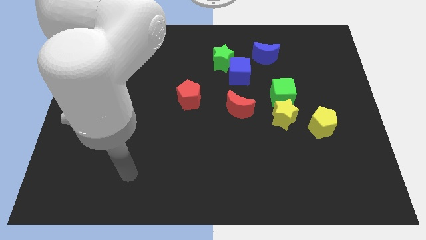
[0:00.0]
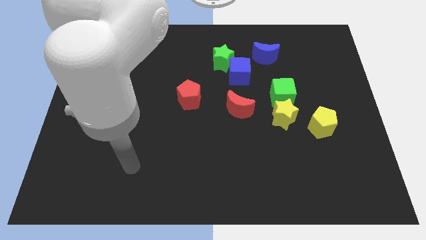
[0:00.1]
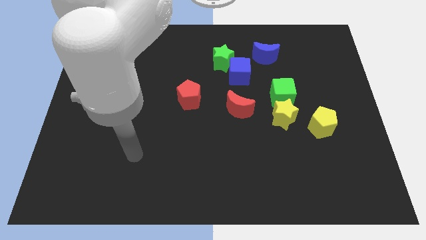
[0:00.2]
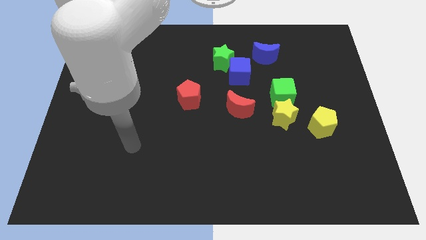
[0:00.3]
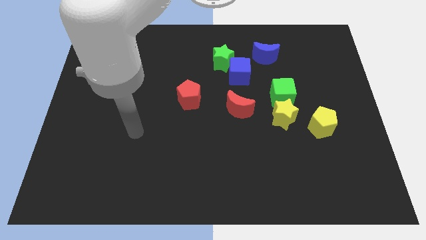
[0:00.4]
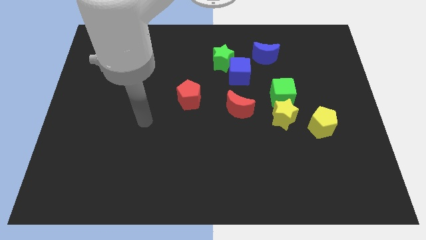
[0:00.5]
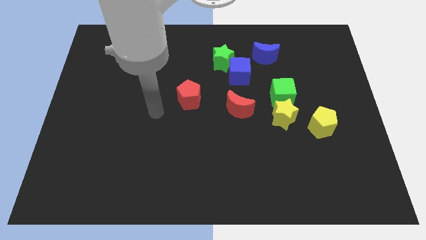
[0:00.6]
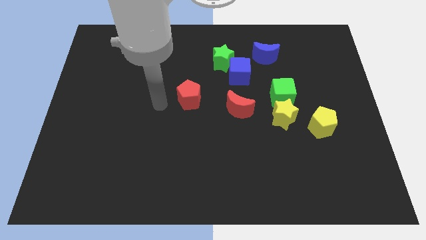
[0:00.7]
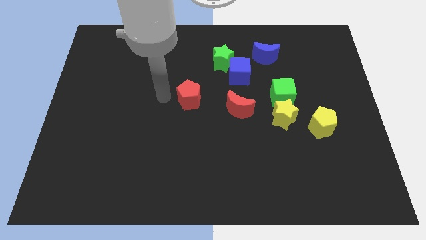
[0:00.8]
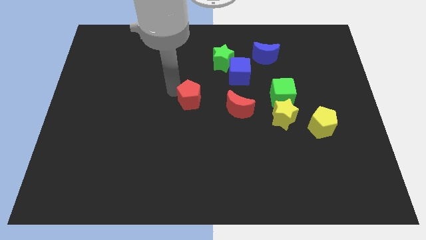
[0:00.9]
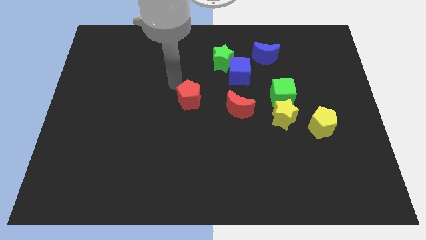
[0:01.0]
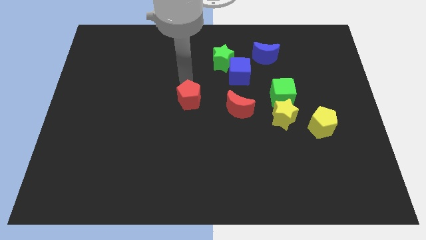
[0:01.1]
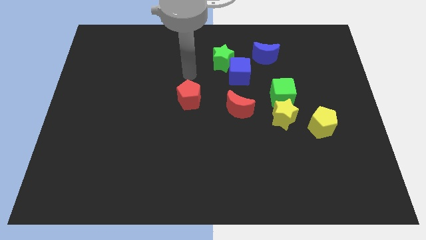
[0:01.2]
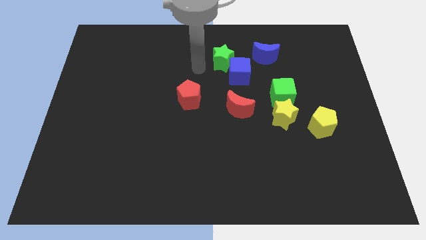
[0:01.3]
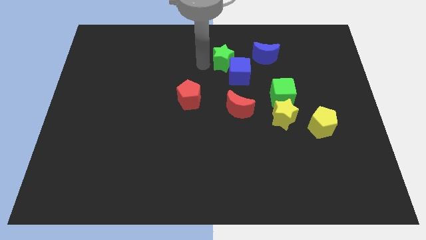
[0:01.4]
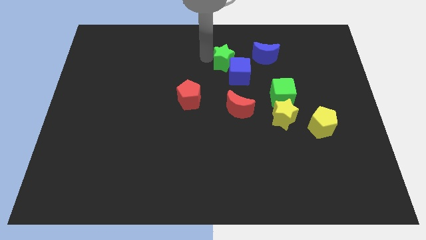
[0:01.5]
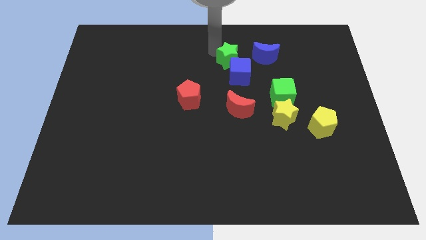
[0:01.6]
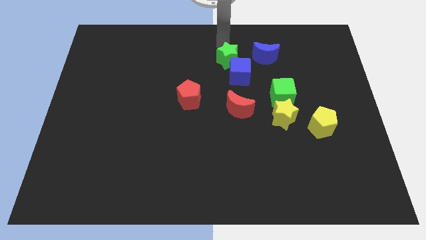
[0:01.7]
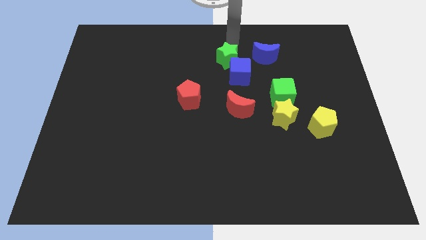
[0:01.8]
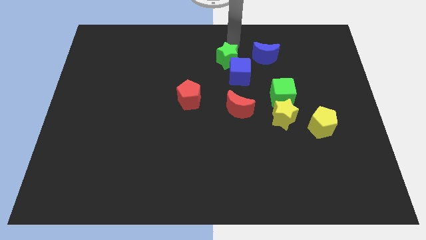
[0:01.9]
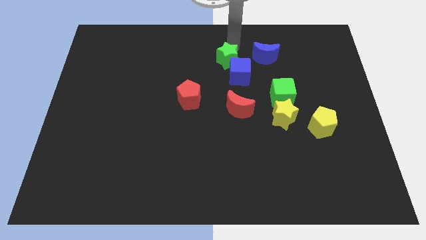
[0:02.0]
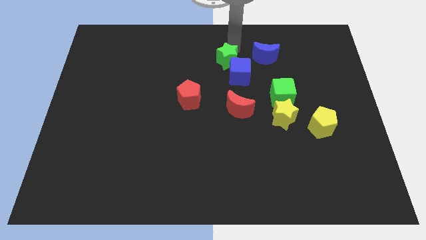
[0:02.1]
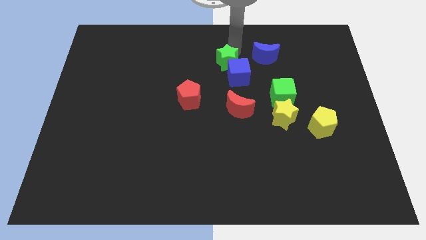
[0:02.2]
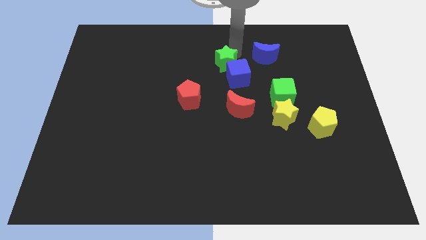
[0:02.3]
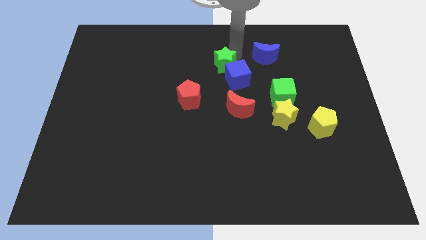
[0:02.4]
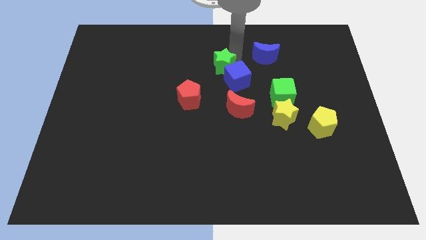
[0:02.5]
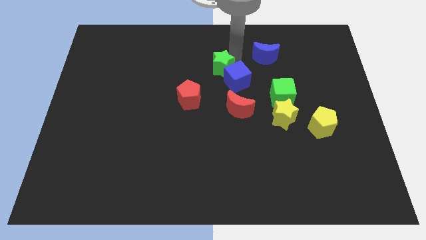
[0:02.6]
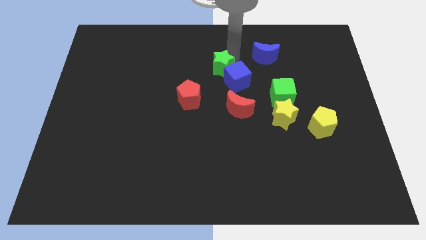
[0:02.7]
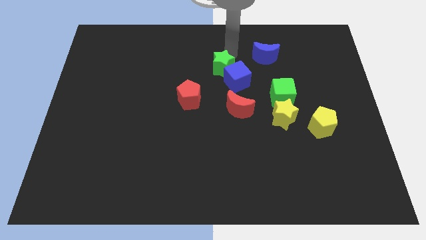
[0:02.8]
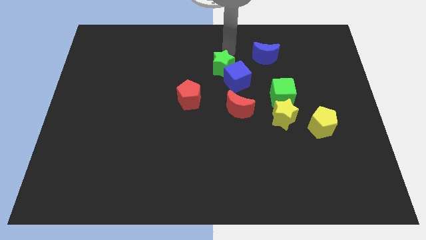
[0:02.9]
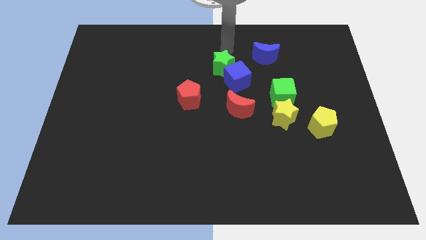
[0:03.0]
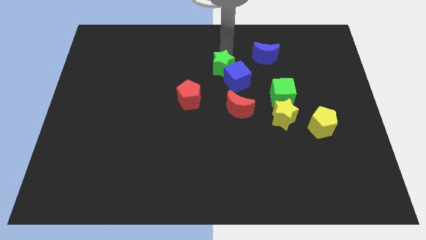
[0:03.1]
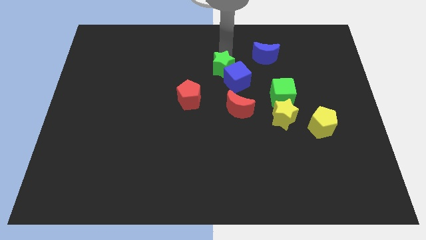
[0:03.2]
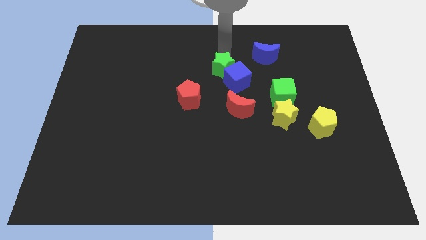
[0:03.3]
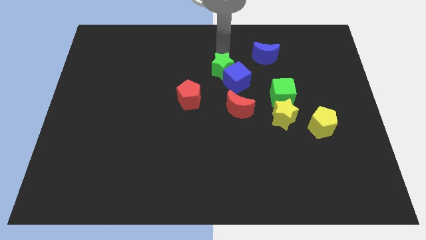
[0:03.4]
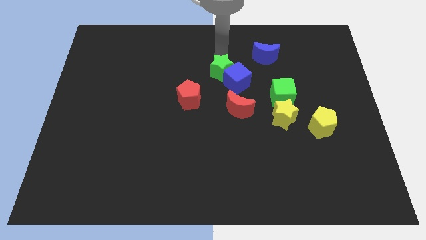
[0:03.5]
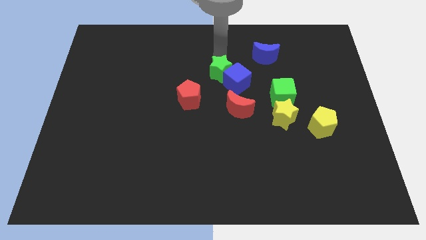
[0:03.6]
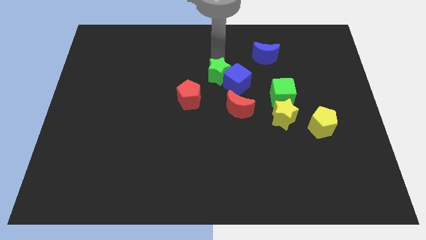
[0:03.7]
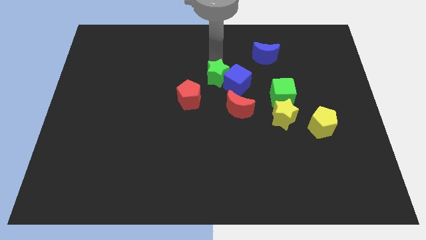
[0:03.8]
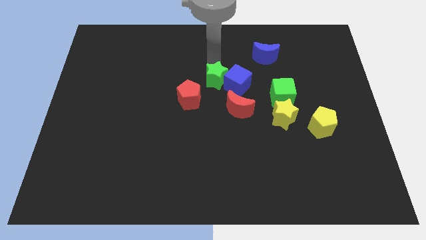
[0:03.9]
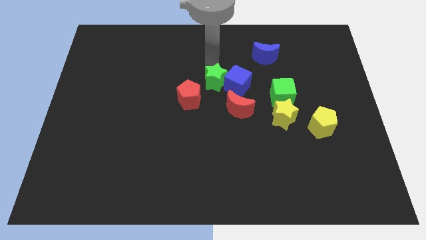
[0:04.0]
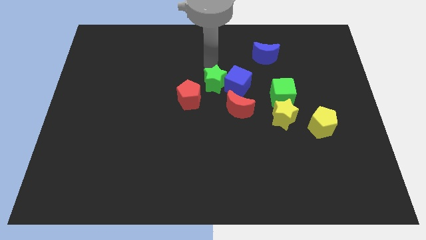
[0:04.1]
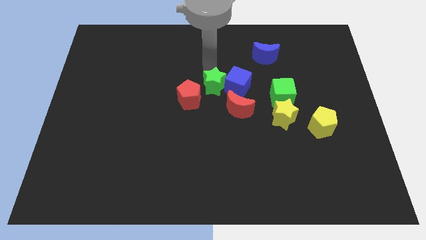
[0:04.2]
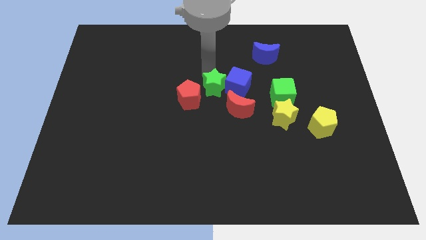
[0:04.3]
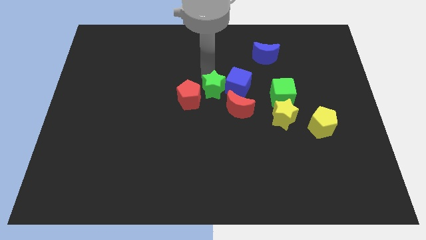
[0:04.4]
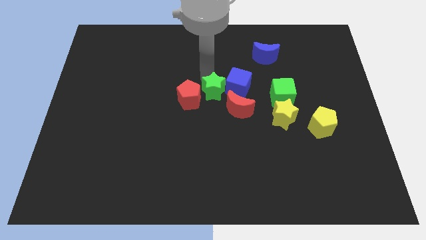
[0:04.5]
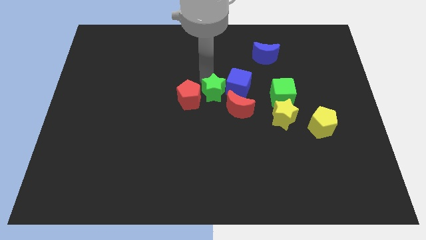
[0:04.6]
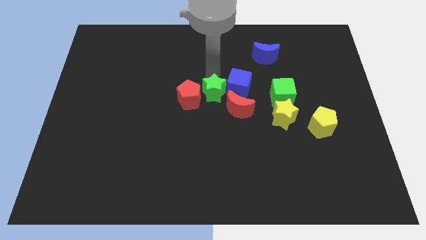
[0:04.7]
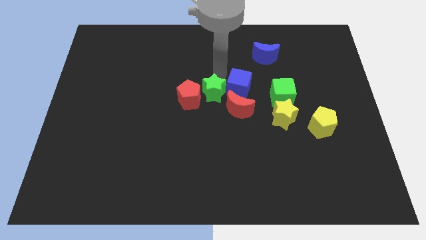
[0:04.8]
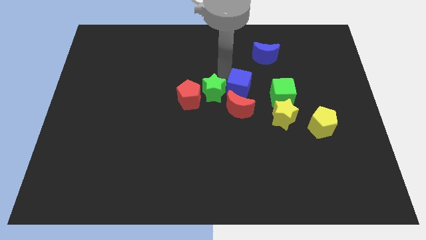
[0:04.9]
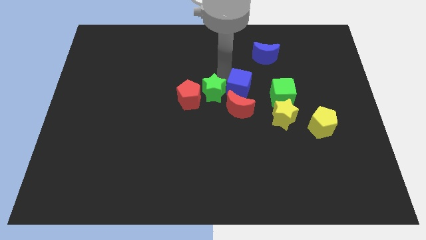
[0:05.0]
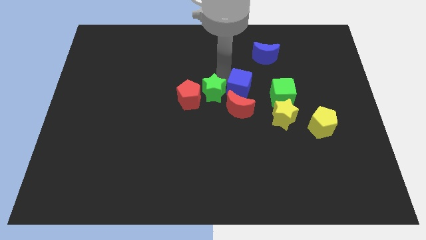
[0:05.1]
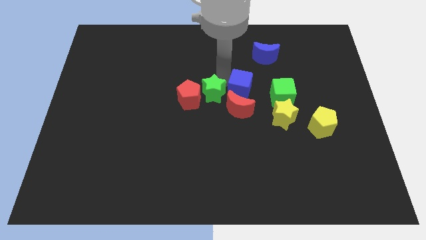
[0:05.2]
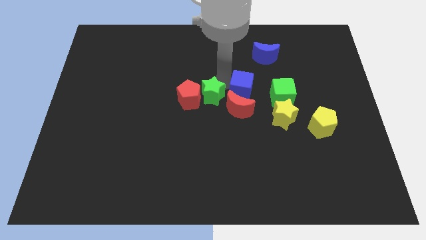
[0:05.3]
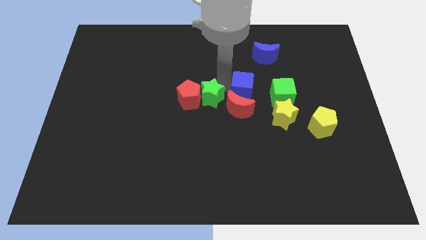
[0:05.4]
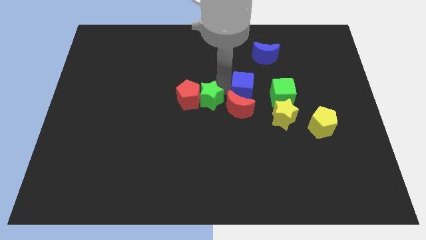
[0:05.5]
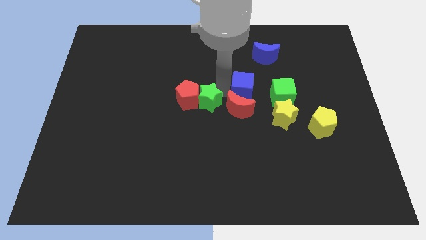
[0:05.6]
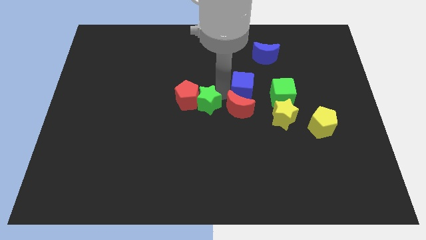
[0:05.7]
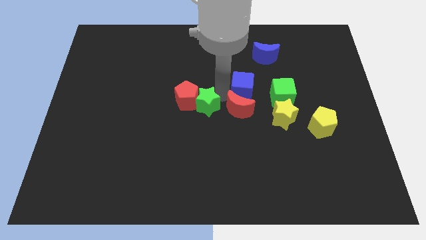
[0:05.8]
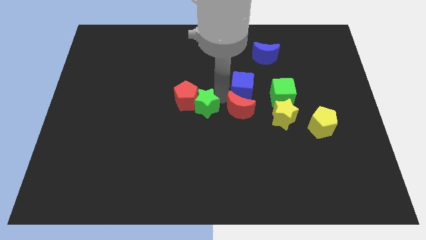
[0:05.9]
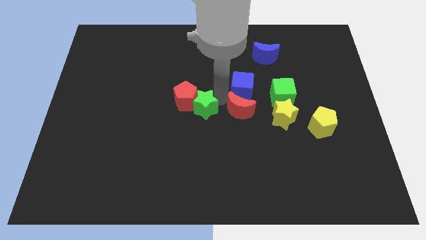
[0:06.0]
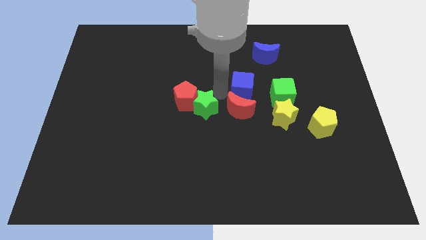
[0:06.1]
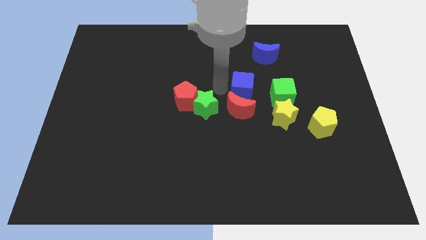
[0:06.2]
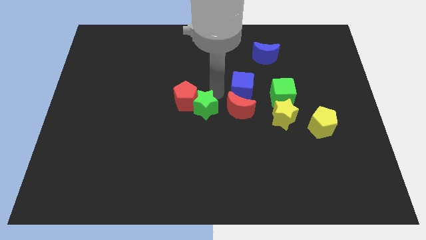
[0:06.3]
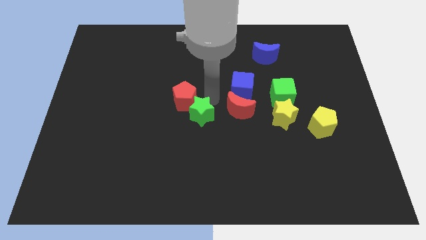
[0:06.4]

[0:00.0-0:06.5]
slide the green star to the bottom side of the red pentagon

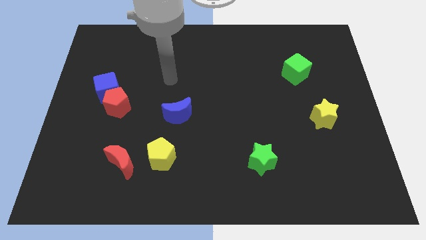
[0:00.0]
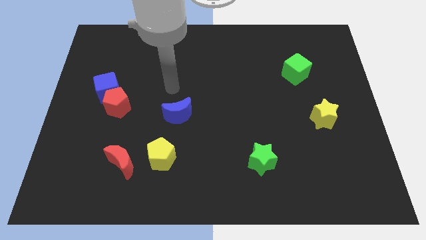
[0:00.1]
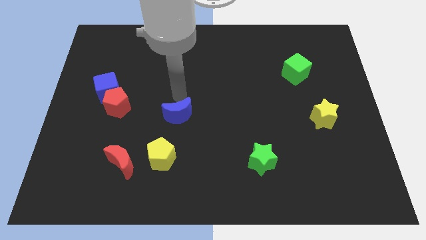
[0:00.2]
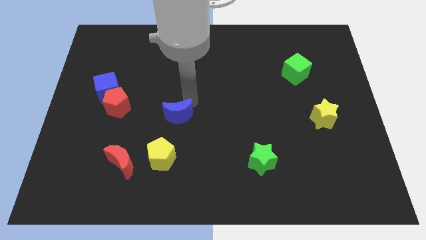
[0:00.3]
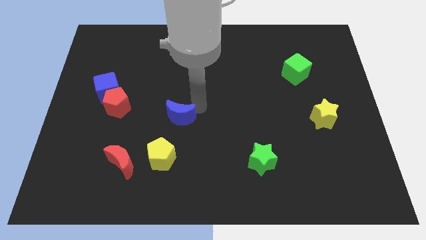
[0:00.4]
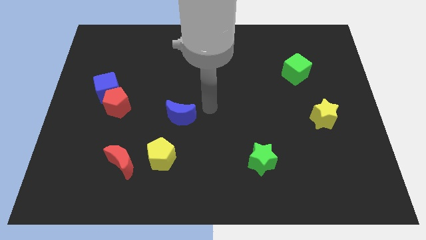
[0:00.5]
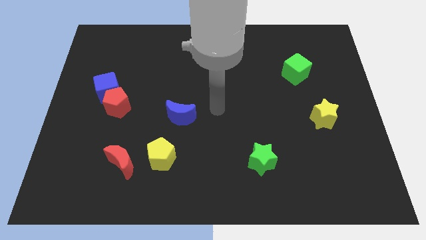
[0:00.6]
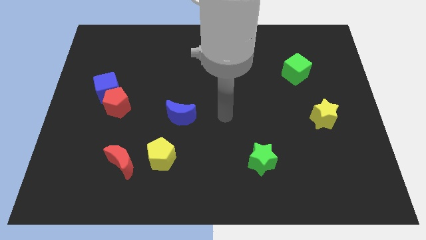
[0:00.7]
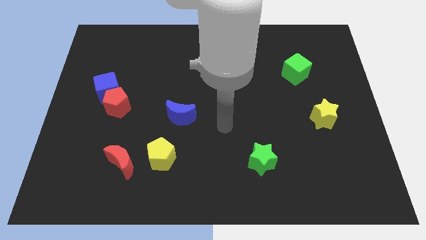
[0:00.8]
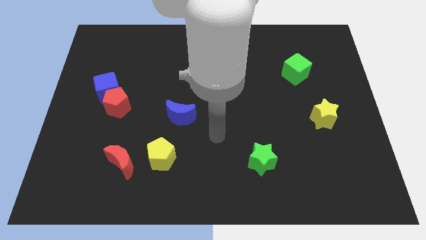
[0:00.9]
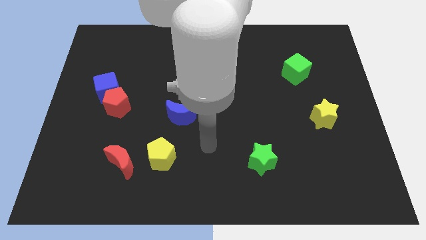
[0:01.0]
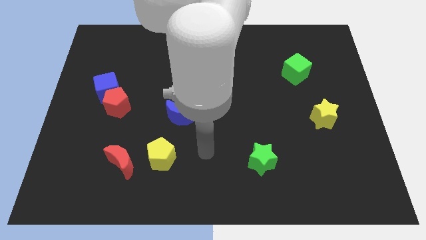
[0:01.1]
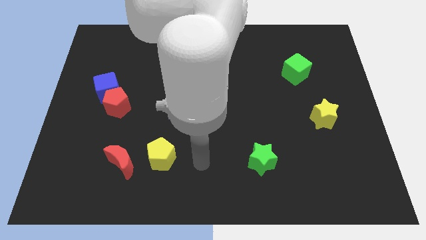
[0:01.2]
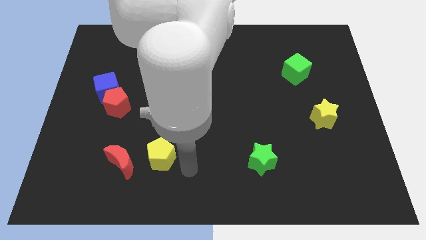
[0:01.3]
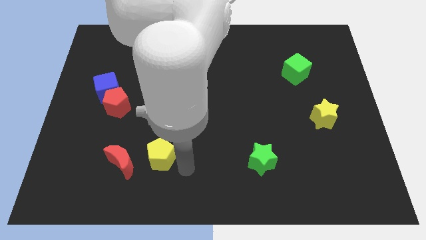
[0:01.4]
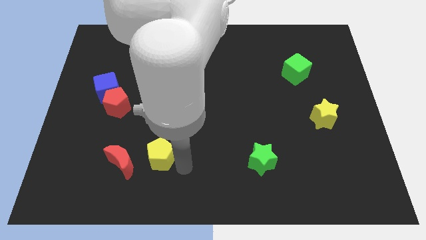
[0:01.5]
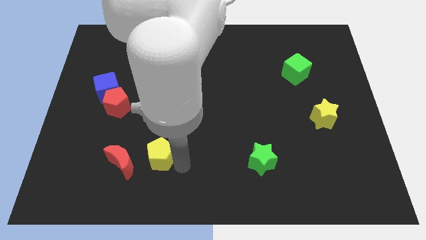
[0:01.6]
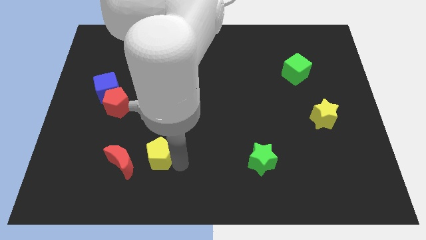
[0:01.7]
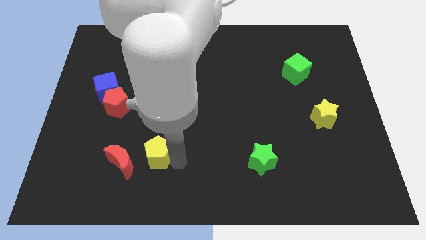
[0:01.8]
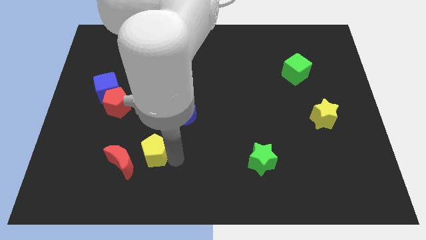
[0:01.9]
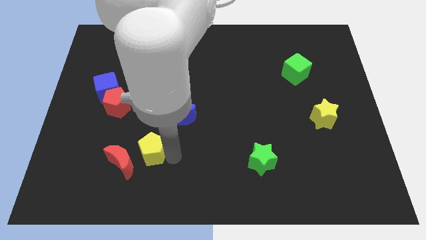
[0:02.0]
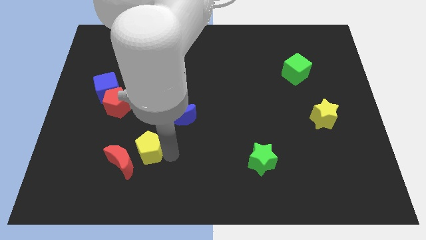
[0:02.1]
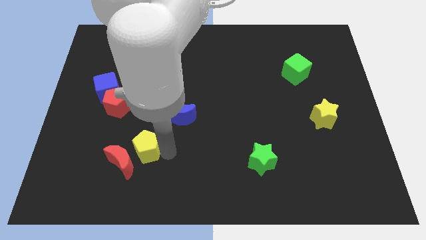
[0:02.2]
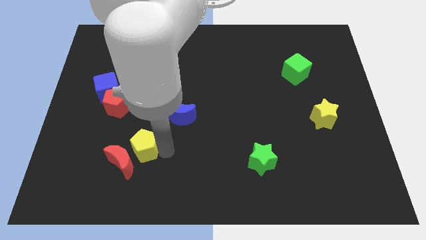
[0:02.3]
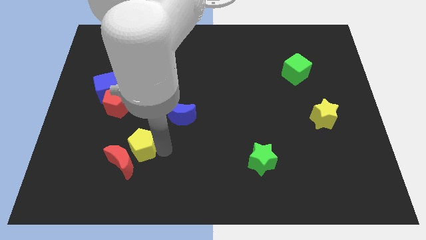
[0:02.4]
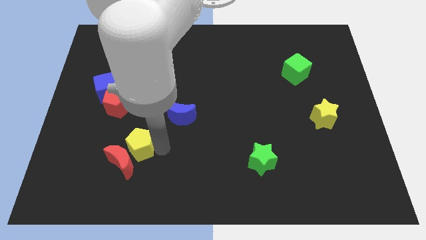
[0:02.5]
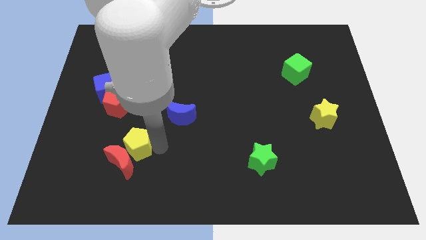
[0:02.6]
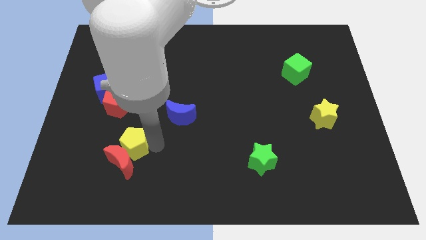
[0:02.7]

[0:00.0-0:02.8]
push the yellow pentagon to the top left of the red moon
